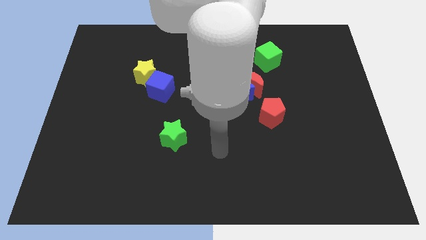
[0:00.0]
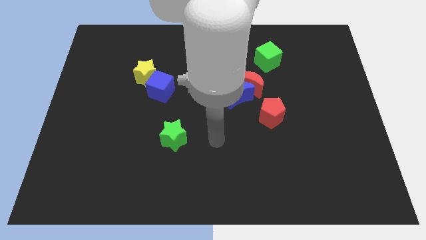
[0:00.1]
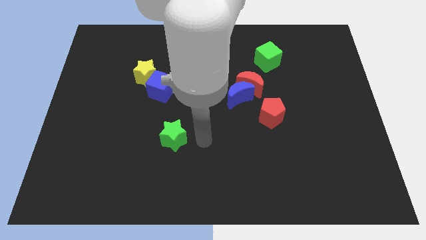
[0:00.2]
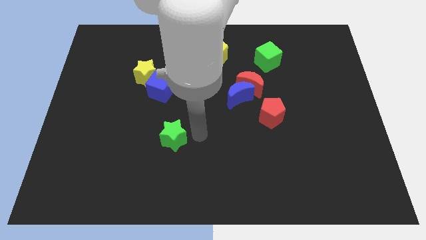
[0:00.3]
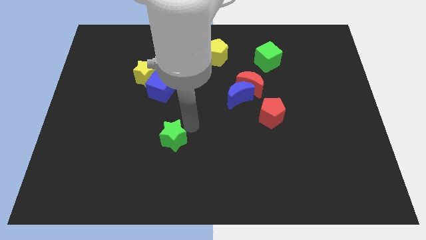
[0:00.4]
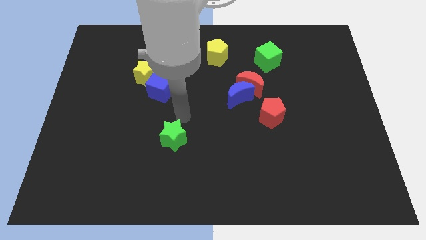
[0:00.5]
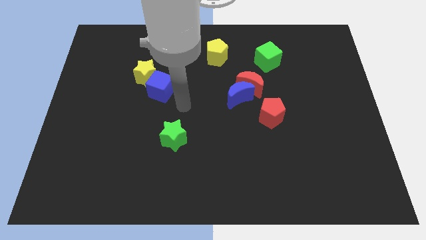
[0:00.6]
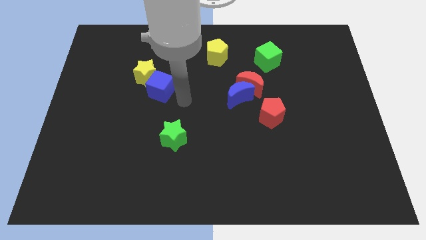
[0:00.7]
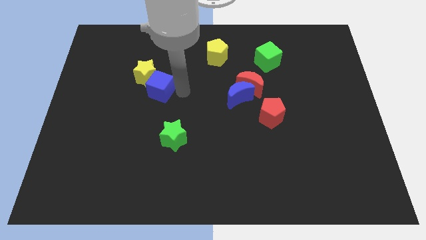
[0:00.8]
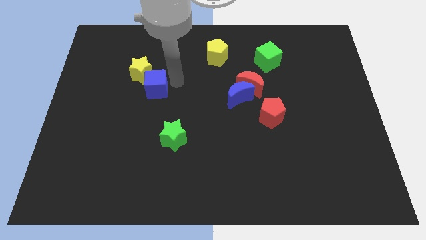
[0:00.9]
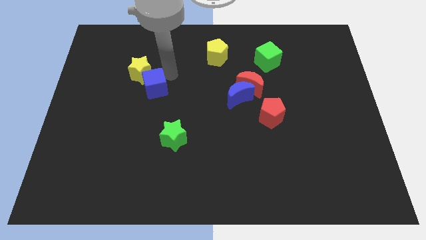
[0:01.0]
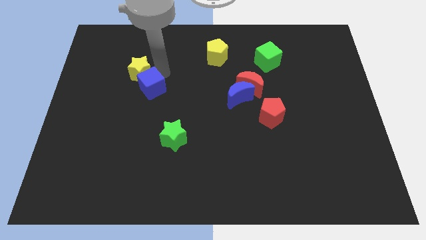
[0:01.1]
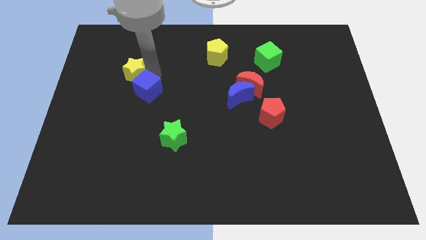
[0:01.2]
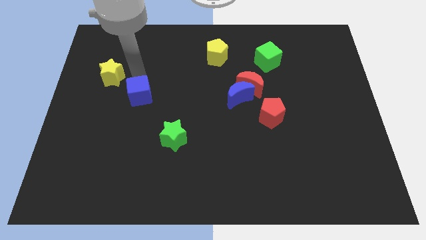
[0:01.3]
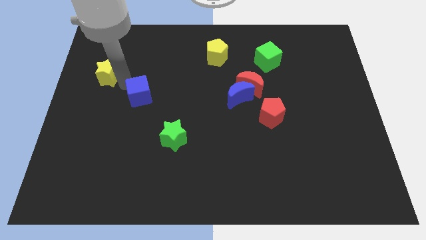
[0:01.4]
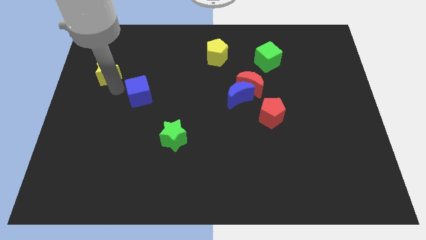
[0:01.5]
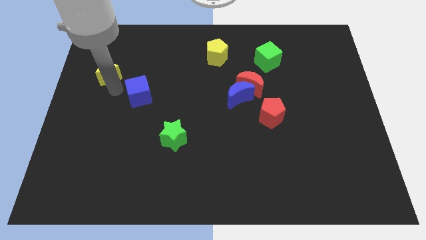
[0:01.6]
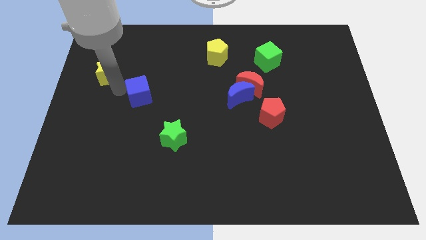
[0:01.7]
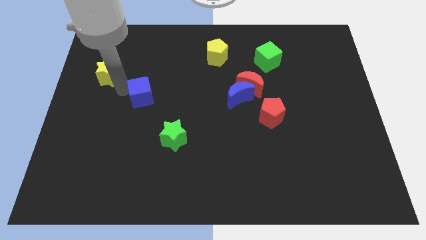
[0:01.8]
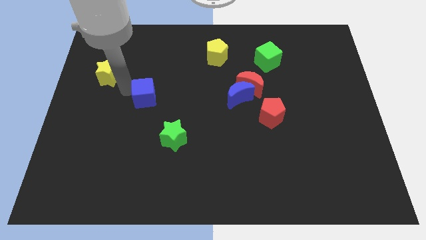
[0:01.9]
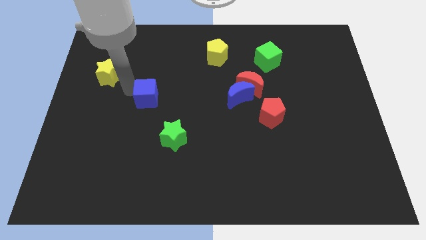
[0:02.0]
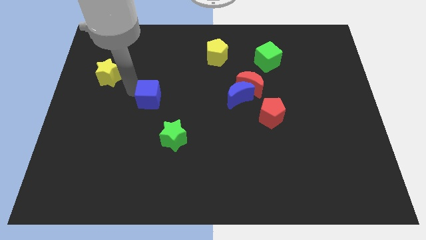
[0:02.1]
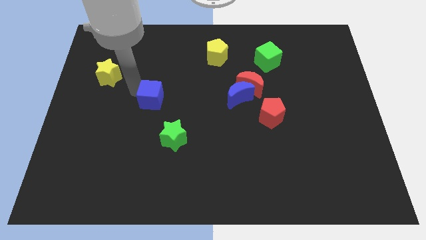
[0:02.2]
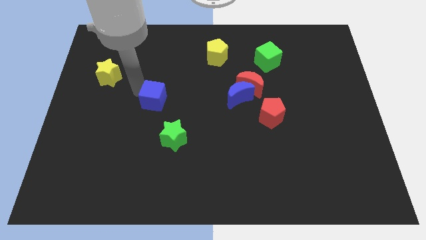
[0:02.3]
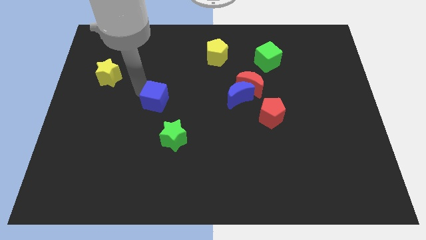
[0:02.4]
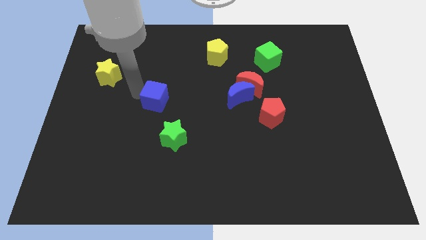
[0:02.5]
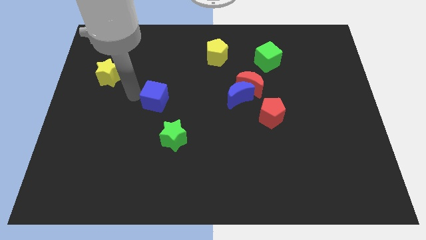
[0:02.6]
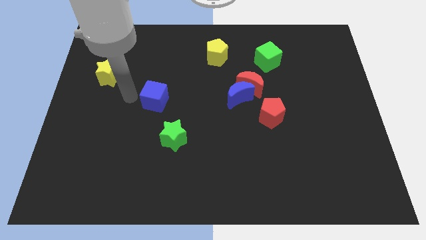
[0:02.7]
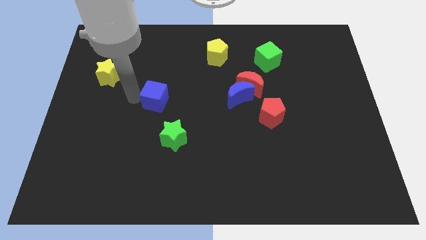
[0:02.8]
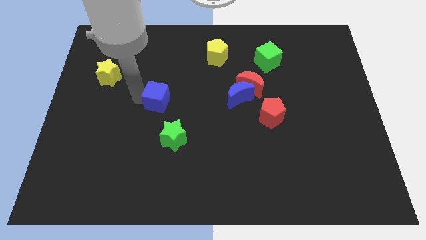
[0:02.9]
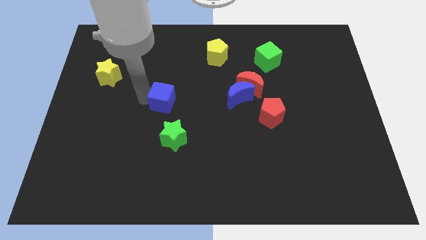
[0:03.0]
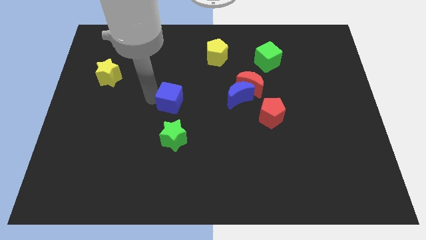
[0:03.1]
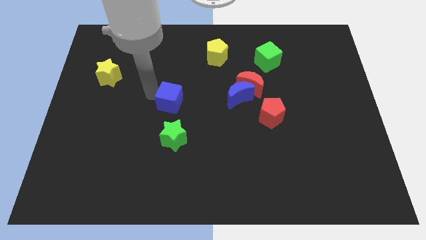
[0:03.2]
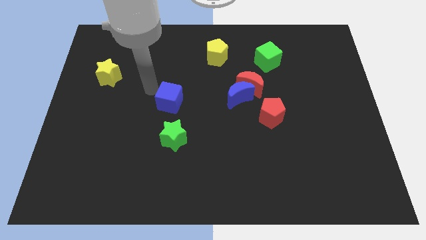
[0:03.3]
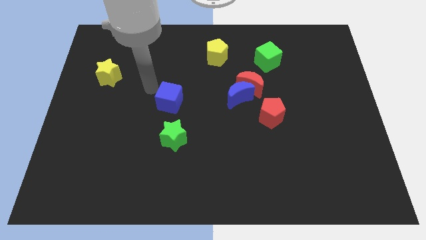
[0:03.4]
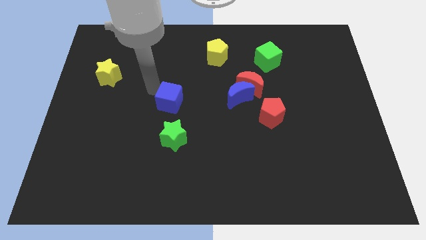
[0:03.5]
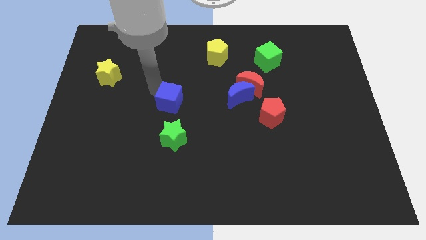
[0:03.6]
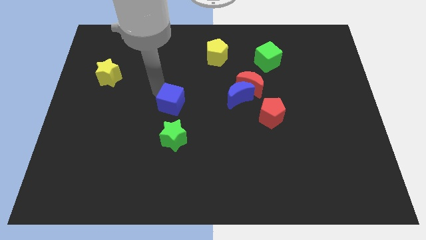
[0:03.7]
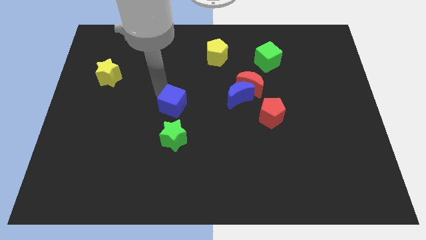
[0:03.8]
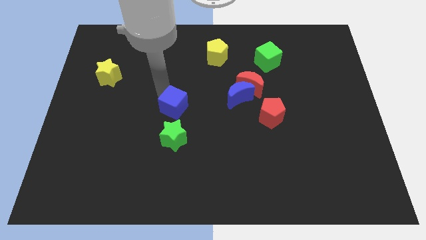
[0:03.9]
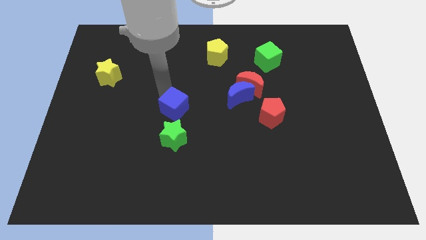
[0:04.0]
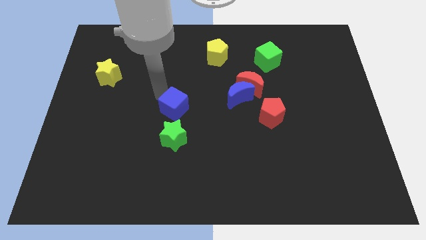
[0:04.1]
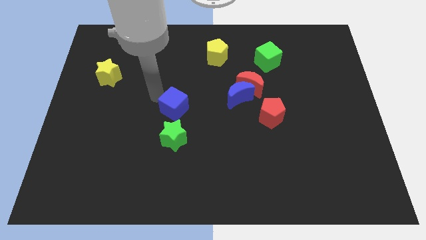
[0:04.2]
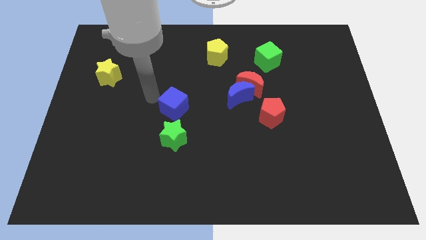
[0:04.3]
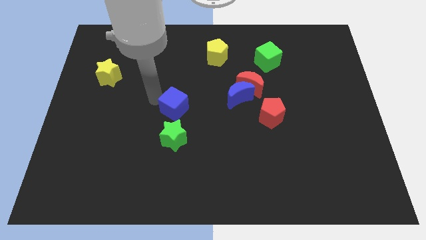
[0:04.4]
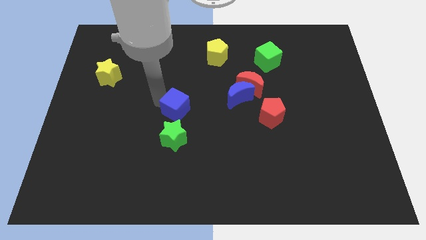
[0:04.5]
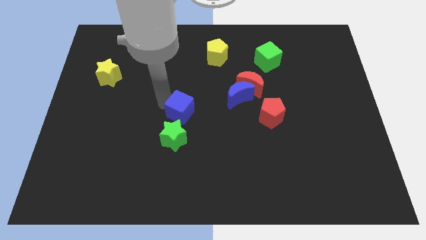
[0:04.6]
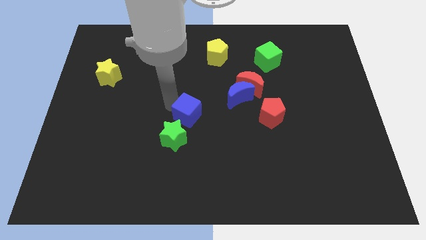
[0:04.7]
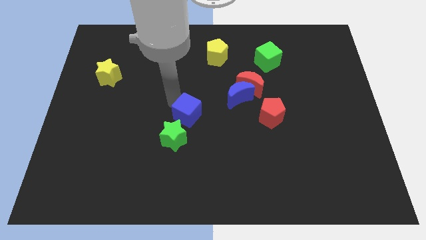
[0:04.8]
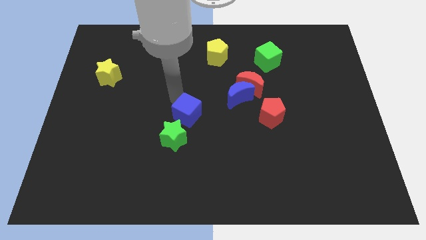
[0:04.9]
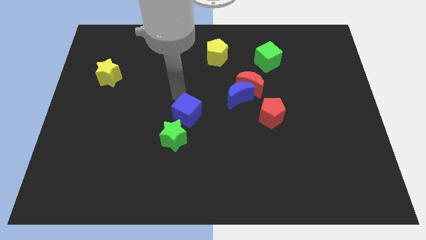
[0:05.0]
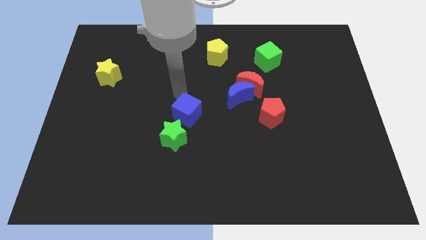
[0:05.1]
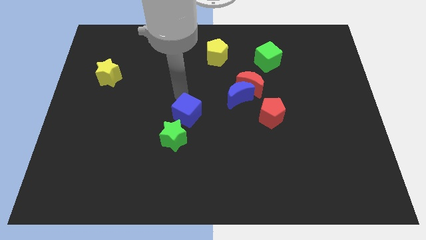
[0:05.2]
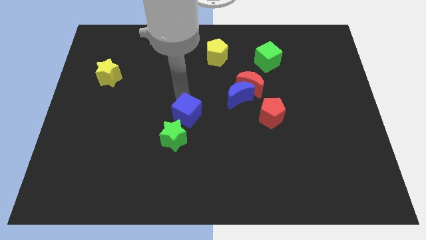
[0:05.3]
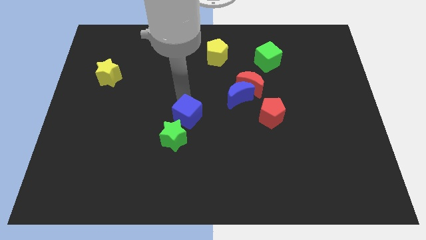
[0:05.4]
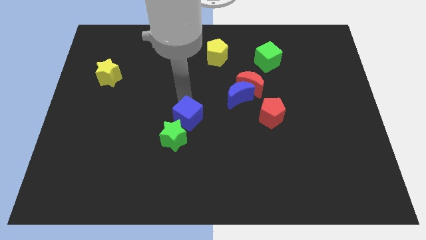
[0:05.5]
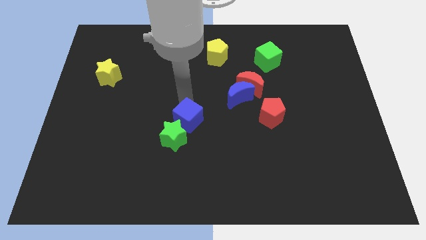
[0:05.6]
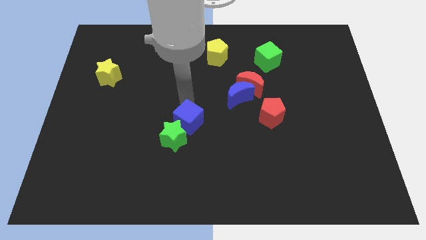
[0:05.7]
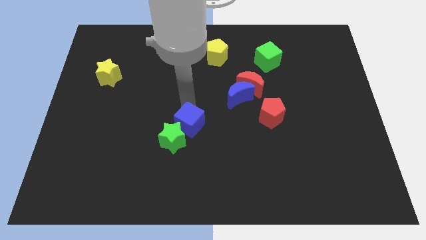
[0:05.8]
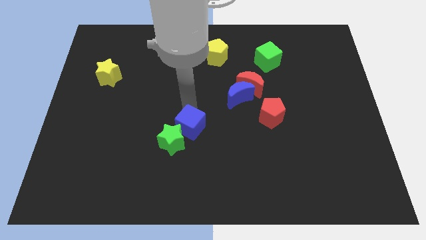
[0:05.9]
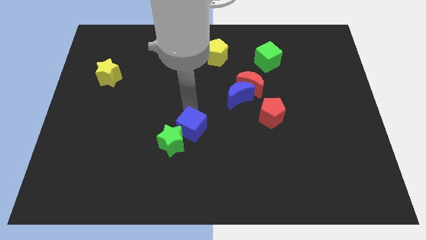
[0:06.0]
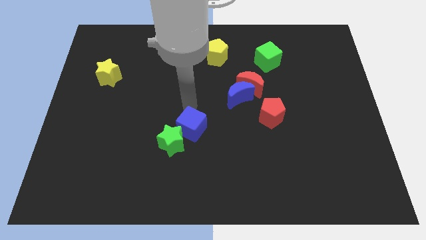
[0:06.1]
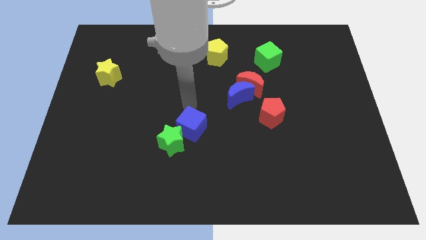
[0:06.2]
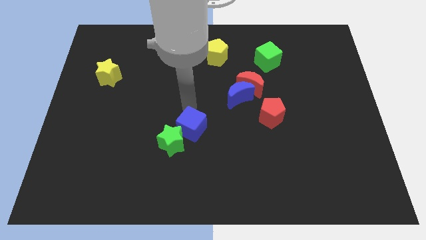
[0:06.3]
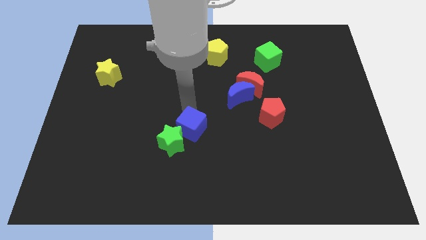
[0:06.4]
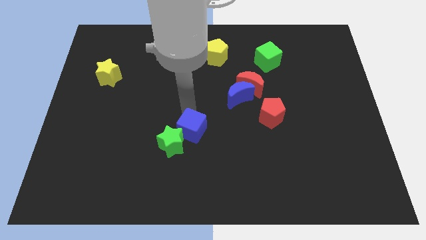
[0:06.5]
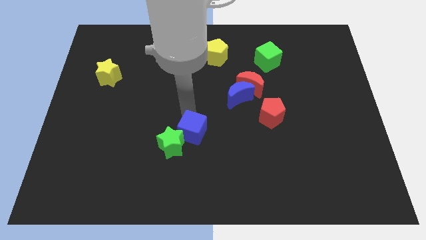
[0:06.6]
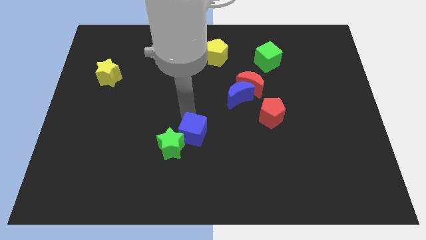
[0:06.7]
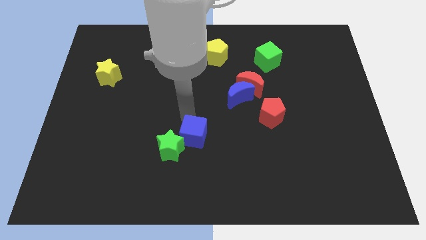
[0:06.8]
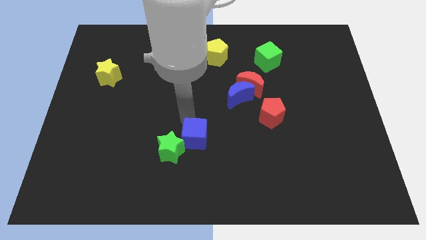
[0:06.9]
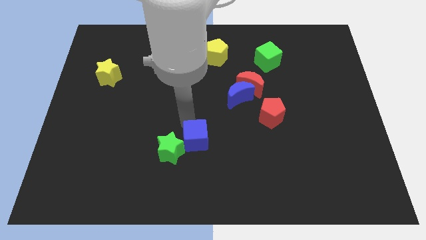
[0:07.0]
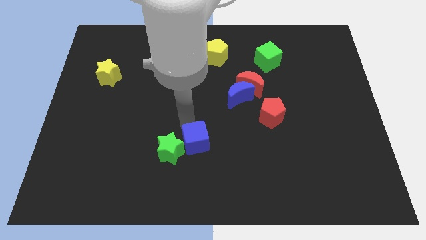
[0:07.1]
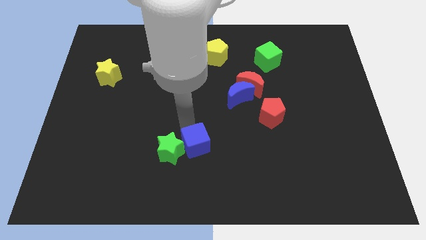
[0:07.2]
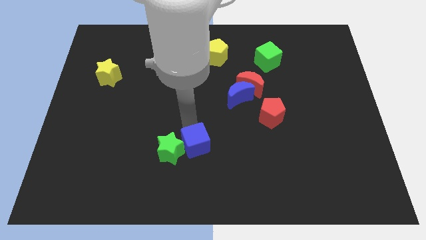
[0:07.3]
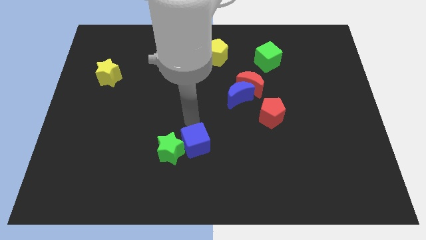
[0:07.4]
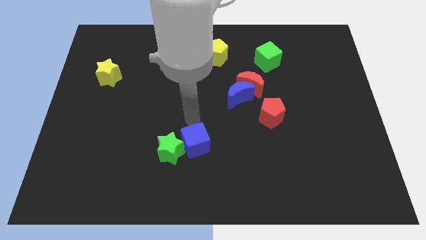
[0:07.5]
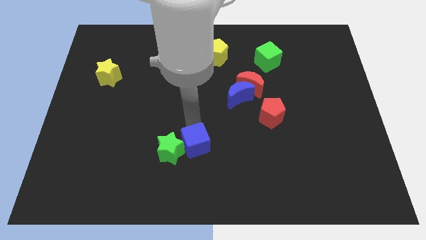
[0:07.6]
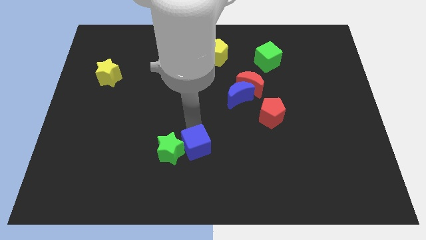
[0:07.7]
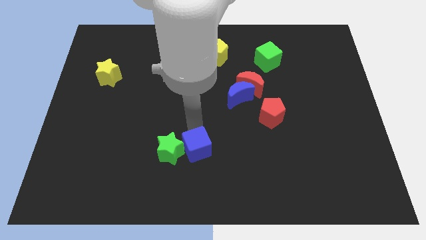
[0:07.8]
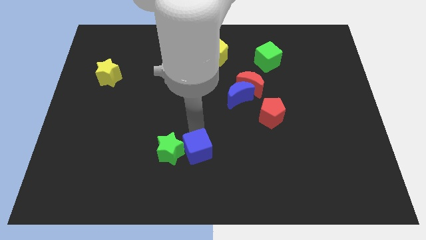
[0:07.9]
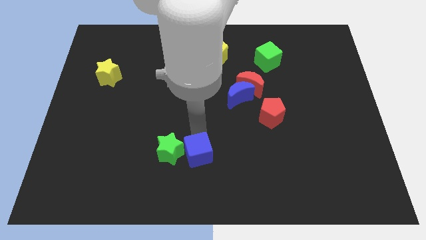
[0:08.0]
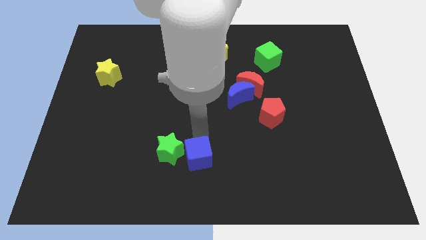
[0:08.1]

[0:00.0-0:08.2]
put the blue cube to the bottom

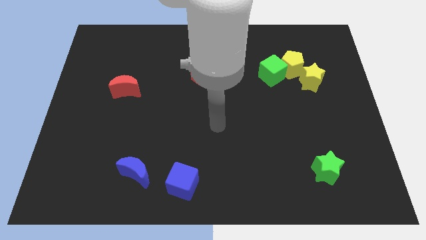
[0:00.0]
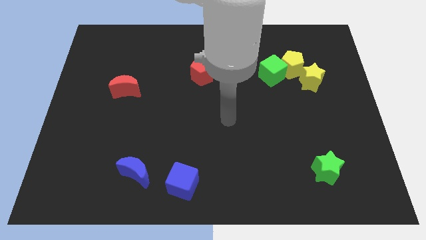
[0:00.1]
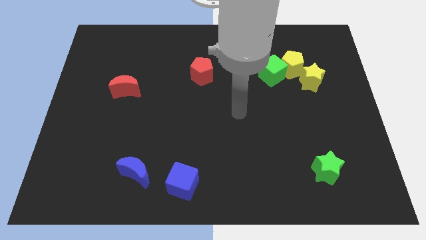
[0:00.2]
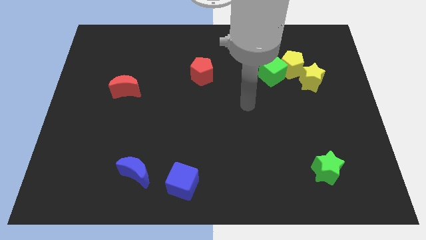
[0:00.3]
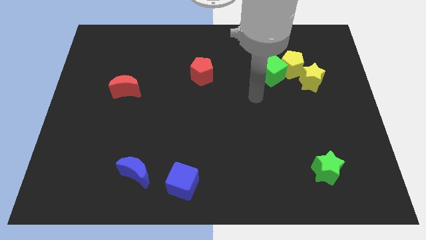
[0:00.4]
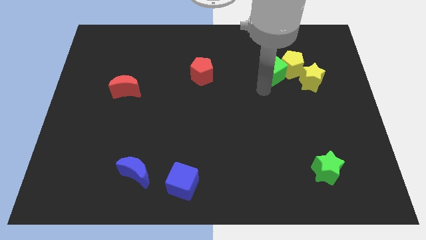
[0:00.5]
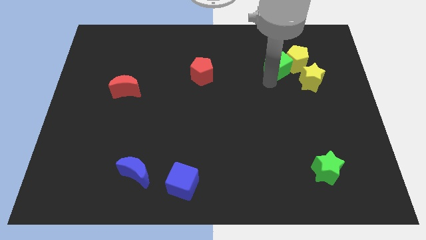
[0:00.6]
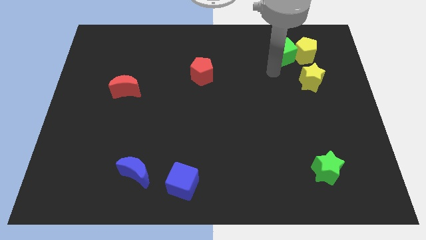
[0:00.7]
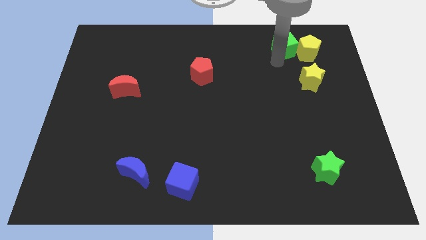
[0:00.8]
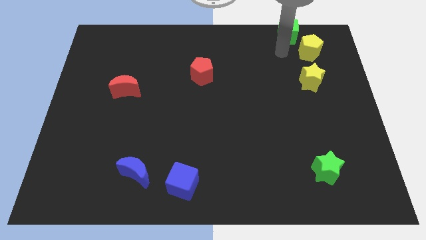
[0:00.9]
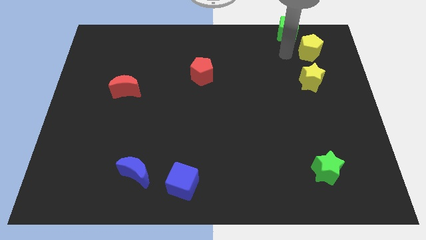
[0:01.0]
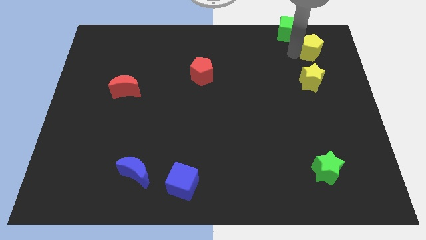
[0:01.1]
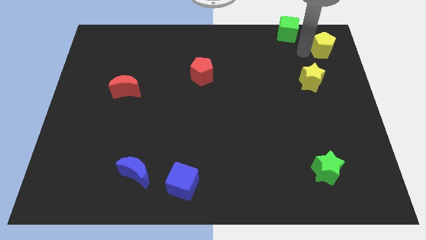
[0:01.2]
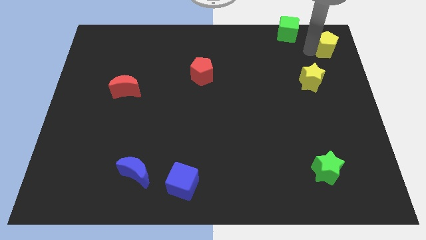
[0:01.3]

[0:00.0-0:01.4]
put the yellow pentagon to the upper right corner
